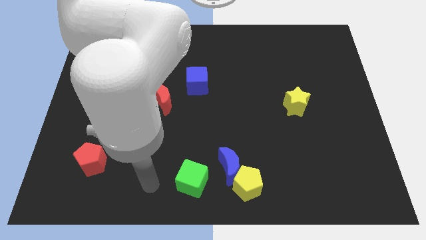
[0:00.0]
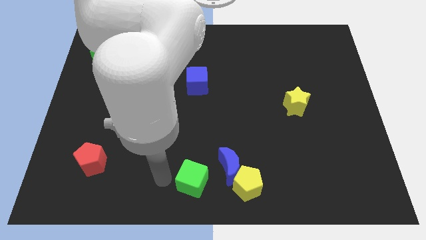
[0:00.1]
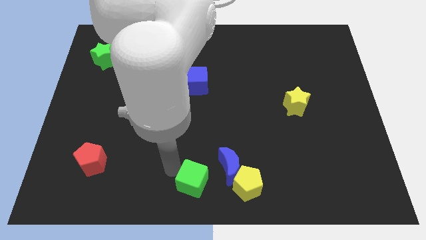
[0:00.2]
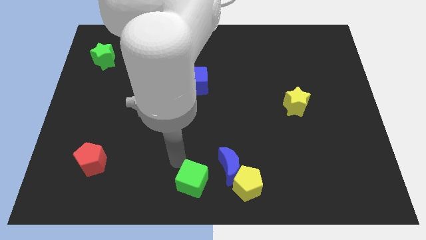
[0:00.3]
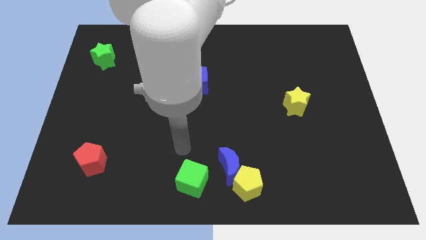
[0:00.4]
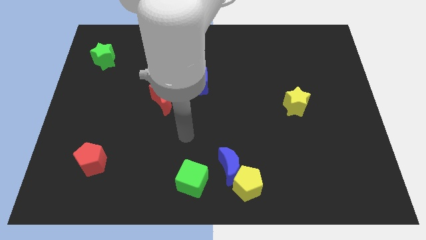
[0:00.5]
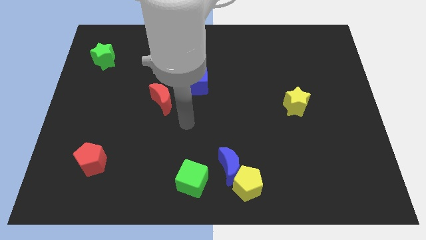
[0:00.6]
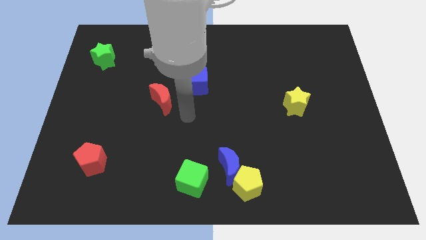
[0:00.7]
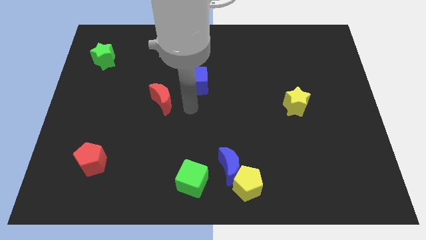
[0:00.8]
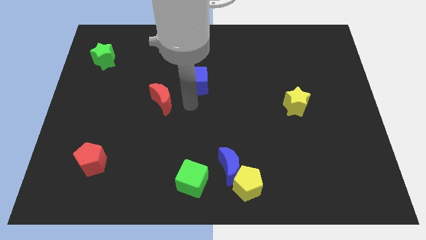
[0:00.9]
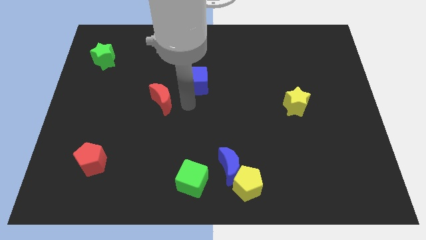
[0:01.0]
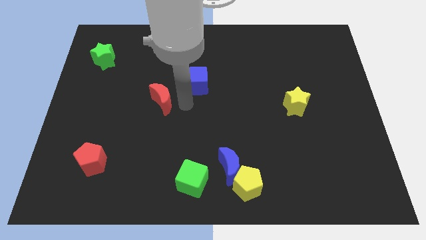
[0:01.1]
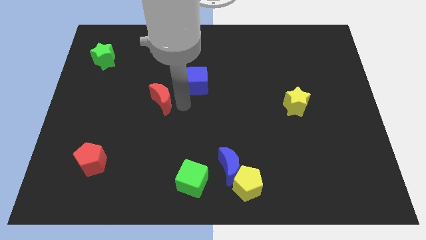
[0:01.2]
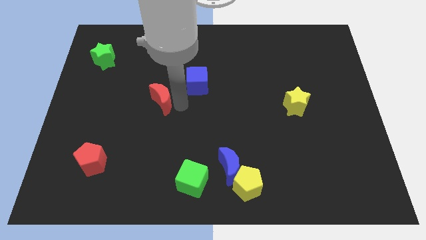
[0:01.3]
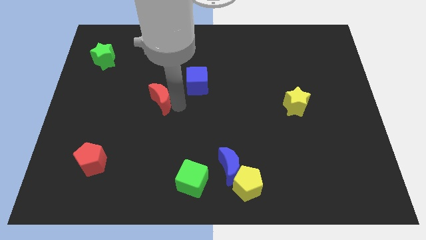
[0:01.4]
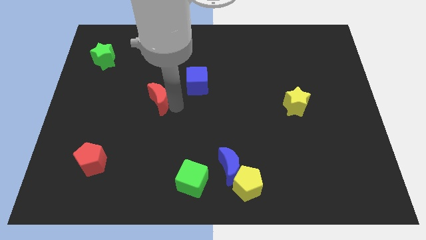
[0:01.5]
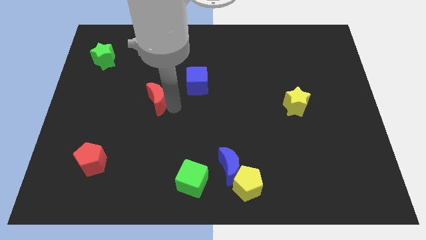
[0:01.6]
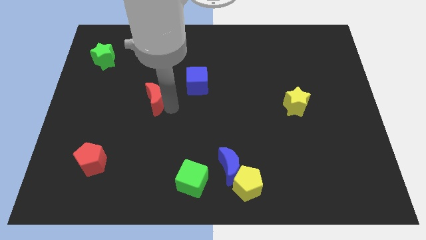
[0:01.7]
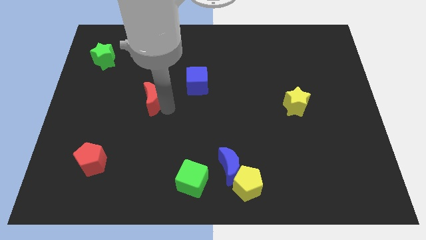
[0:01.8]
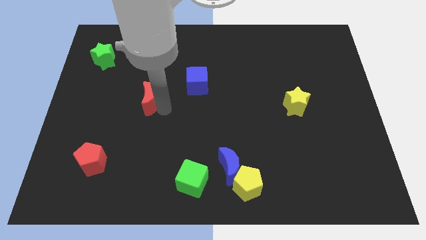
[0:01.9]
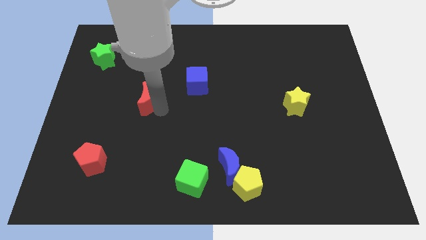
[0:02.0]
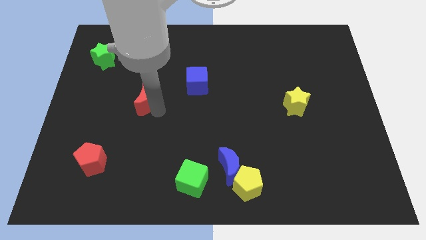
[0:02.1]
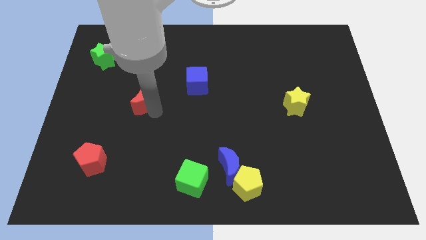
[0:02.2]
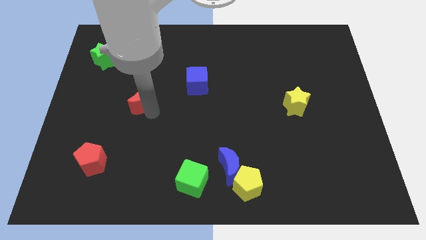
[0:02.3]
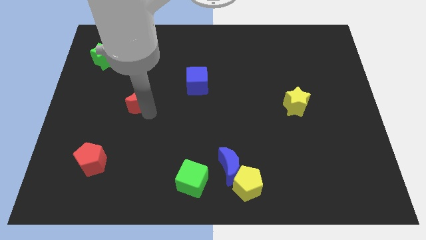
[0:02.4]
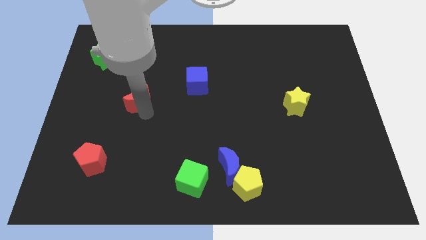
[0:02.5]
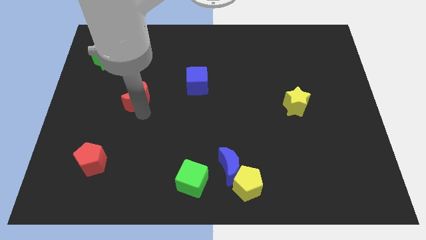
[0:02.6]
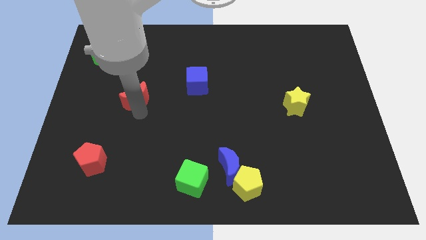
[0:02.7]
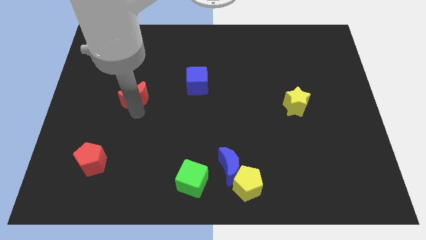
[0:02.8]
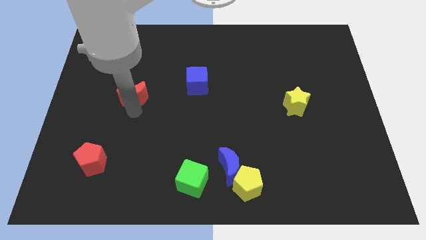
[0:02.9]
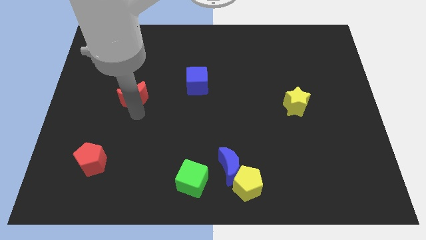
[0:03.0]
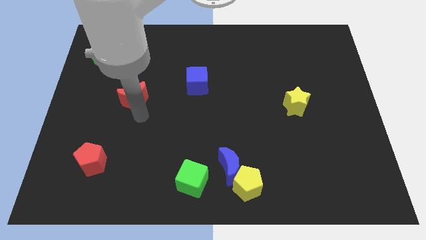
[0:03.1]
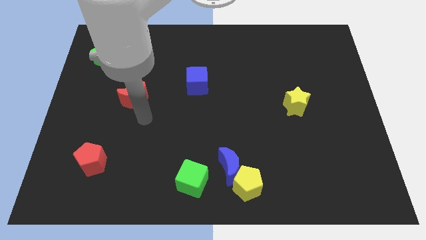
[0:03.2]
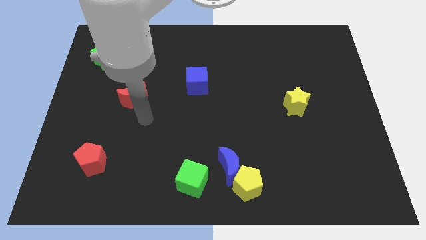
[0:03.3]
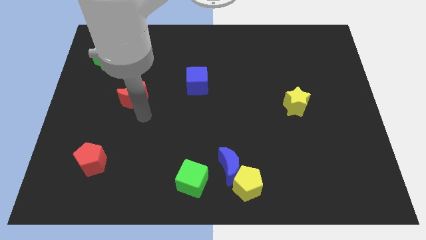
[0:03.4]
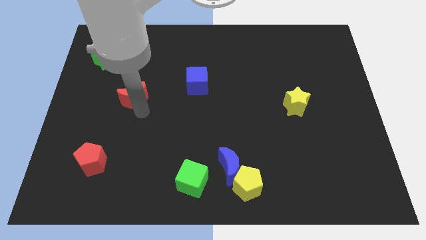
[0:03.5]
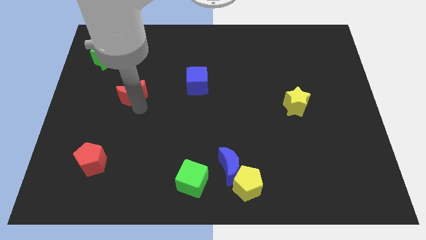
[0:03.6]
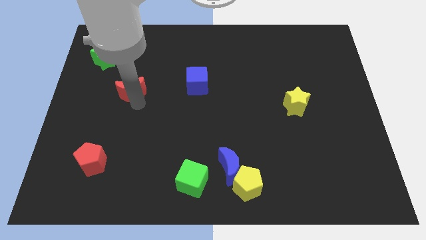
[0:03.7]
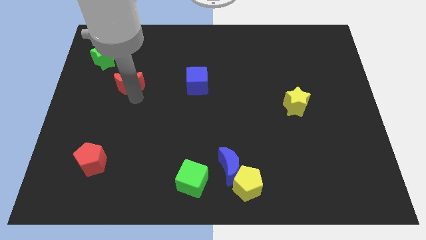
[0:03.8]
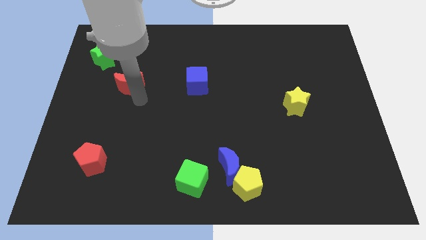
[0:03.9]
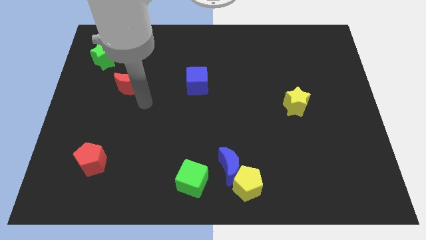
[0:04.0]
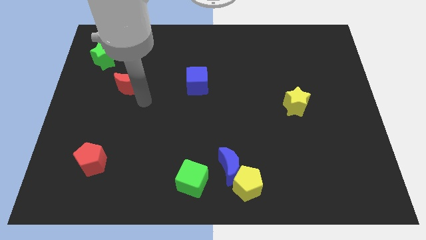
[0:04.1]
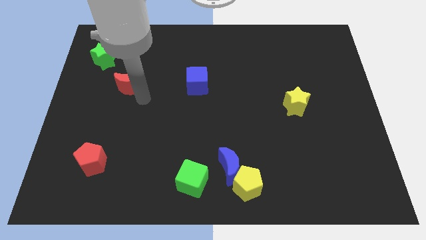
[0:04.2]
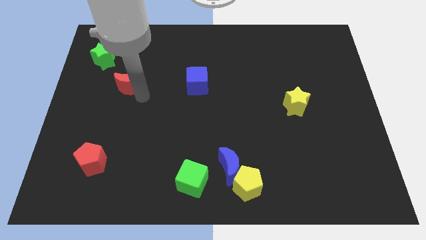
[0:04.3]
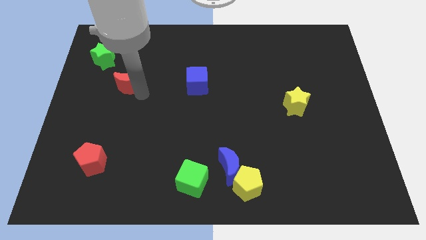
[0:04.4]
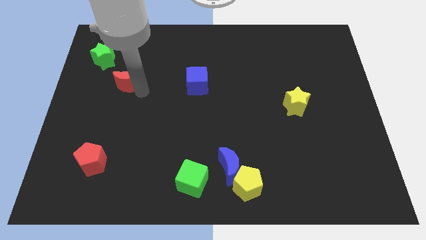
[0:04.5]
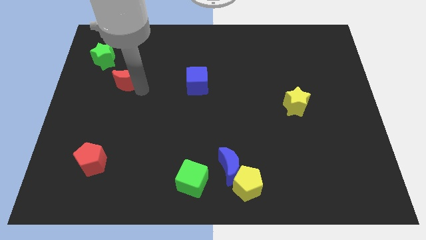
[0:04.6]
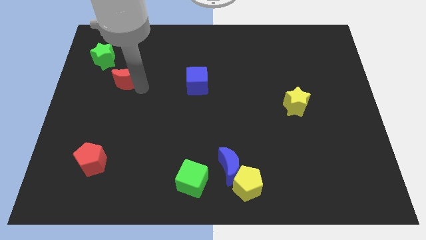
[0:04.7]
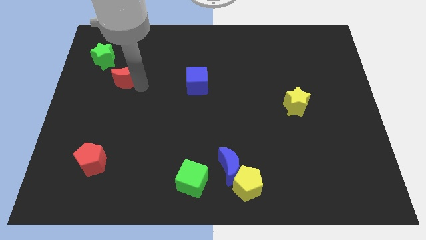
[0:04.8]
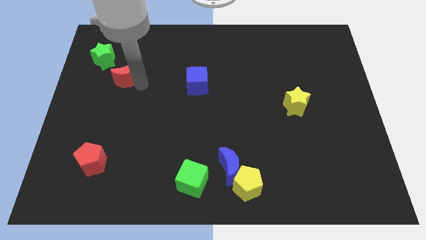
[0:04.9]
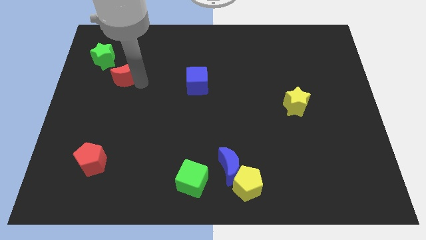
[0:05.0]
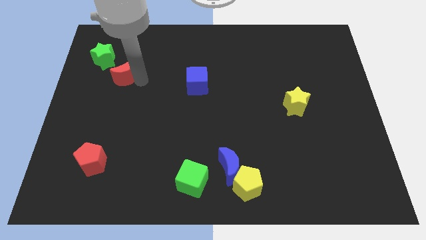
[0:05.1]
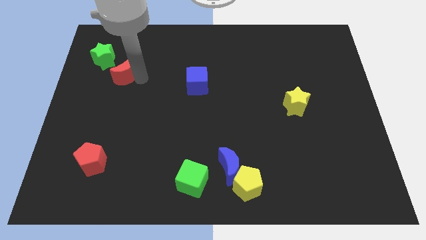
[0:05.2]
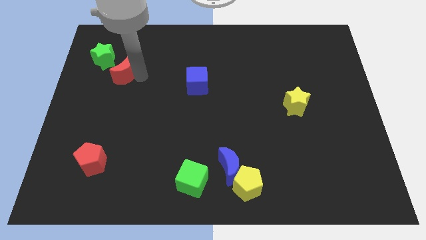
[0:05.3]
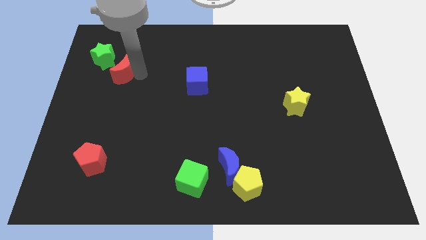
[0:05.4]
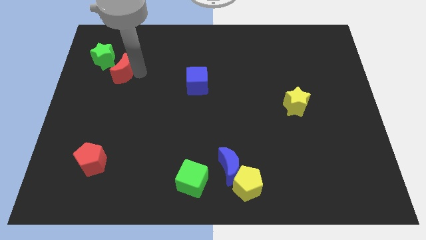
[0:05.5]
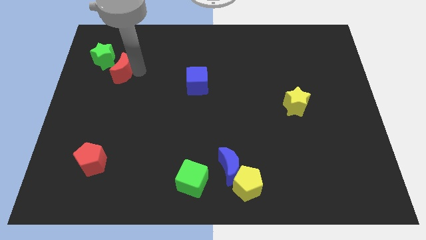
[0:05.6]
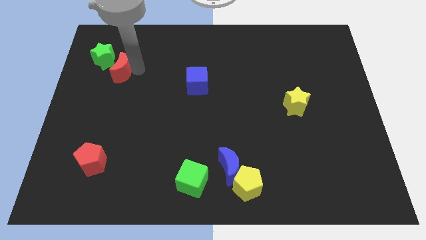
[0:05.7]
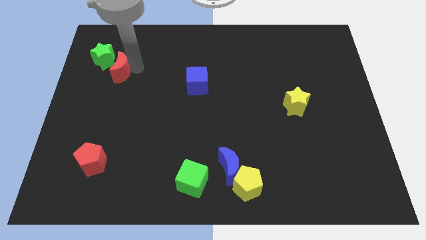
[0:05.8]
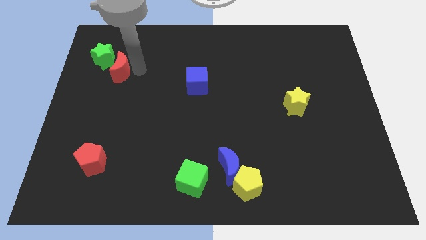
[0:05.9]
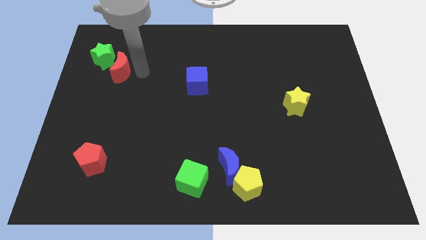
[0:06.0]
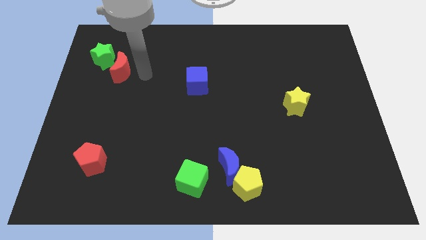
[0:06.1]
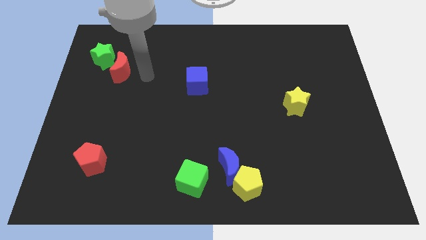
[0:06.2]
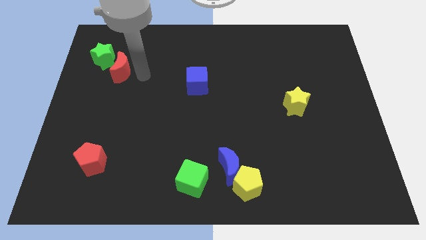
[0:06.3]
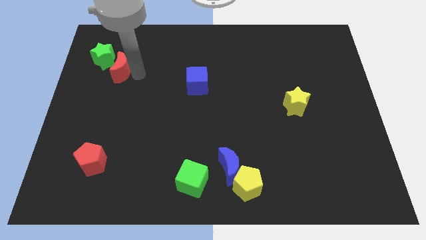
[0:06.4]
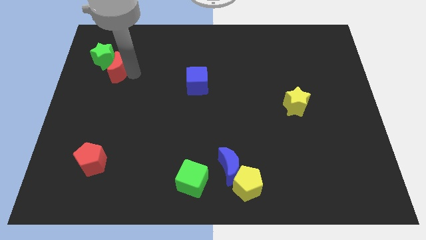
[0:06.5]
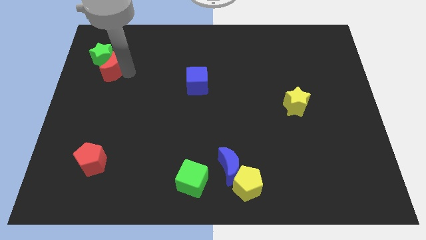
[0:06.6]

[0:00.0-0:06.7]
slide the red moon to the green star

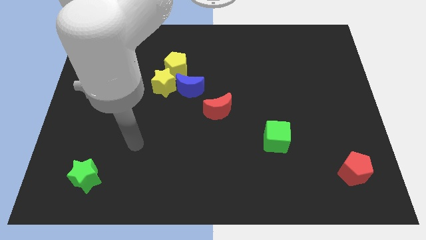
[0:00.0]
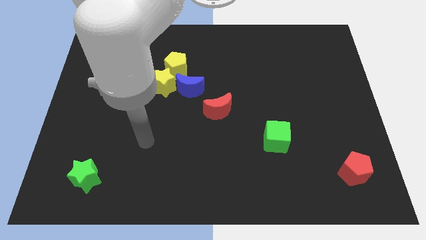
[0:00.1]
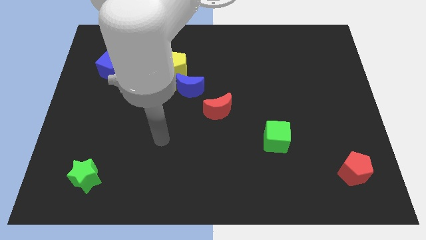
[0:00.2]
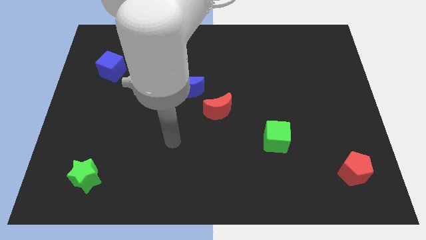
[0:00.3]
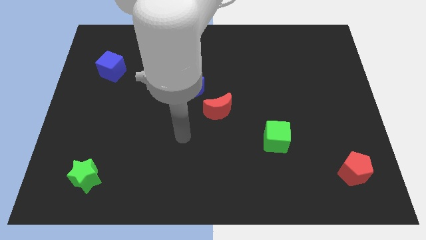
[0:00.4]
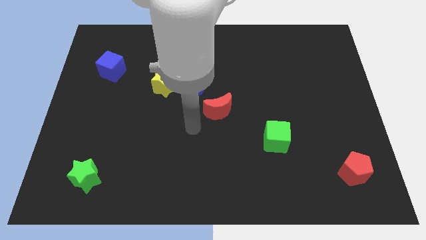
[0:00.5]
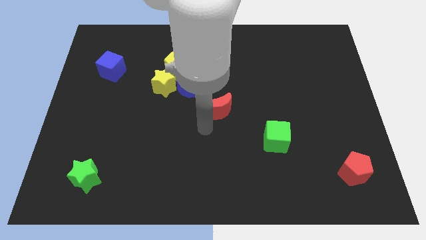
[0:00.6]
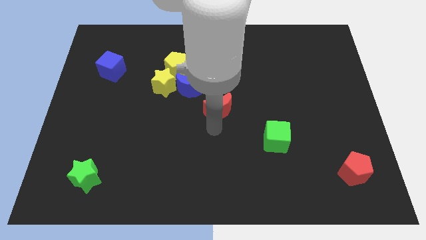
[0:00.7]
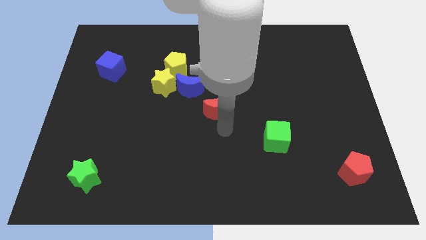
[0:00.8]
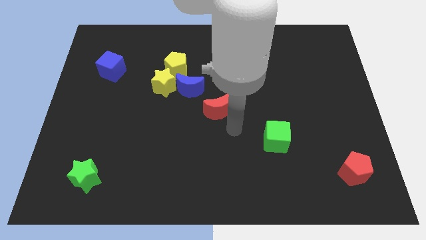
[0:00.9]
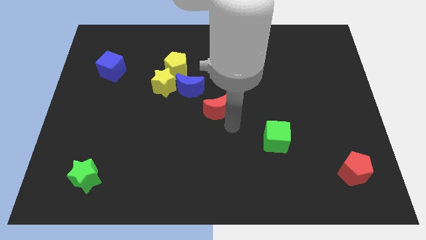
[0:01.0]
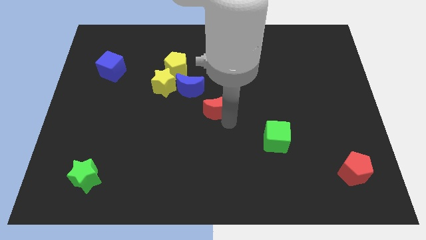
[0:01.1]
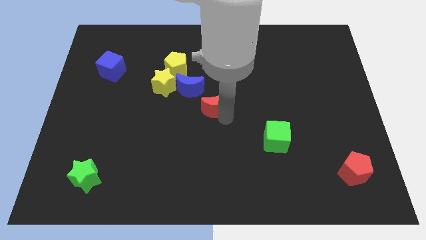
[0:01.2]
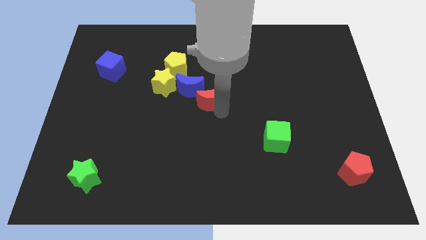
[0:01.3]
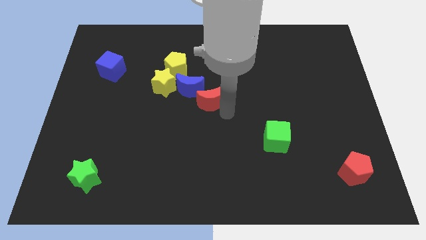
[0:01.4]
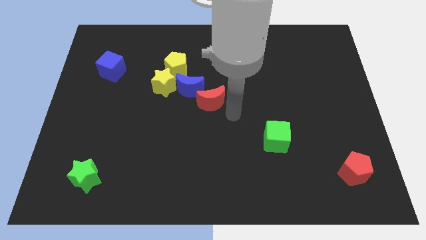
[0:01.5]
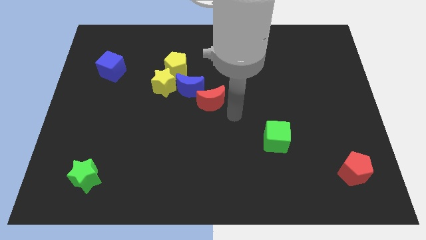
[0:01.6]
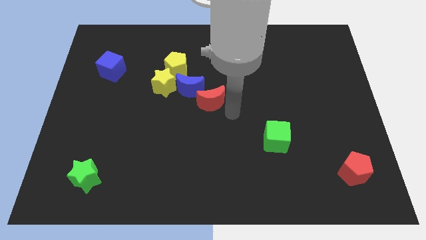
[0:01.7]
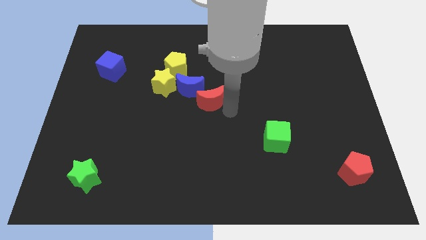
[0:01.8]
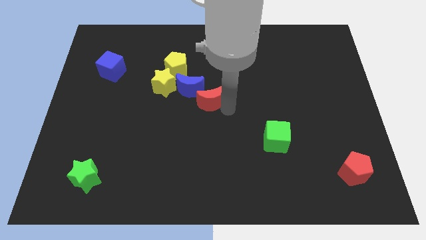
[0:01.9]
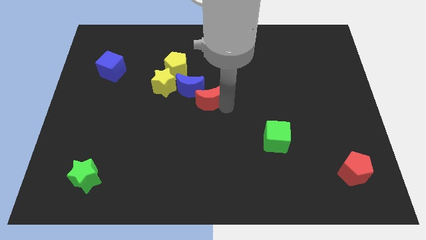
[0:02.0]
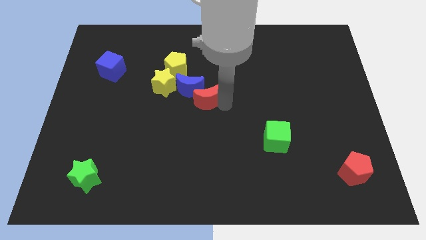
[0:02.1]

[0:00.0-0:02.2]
push the red moon towards the blue moon
